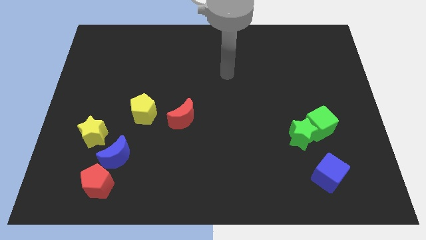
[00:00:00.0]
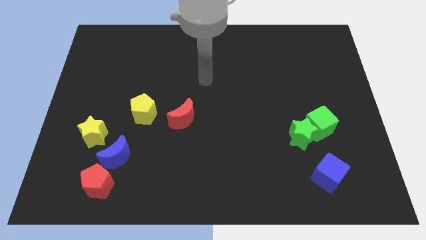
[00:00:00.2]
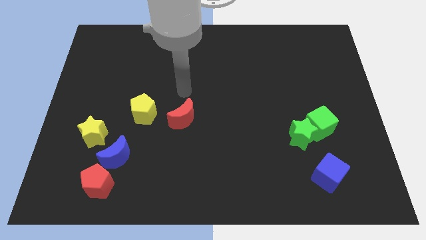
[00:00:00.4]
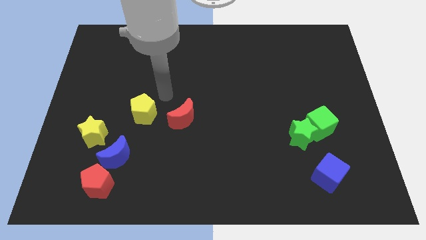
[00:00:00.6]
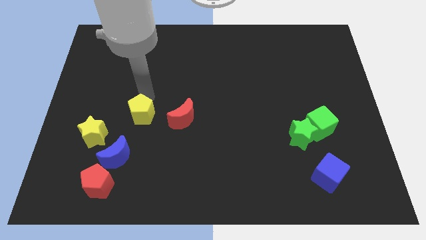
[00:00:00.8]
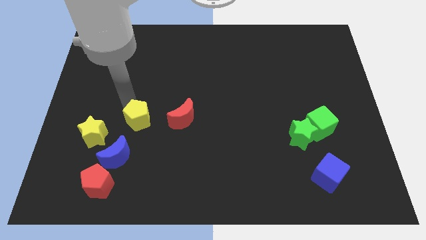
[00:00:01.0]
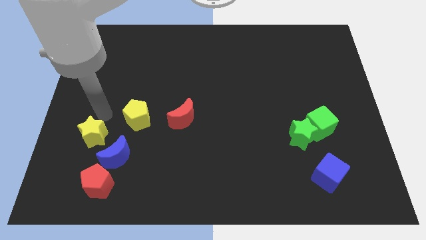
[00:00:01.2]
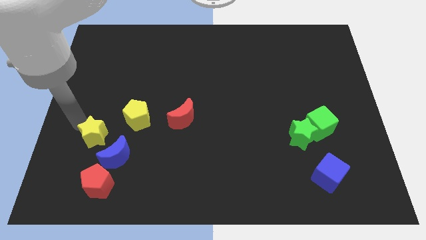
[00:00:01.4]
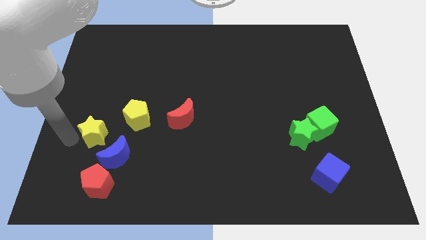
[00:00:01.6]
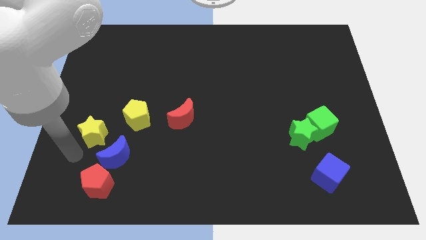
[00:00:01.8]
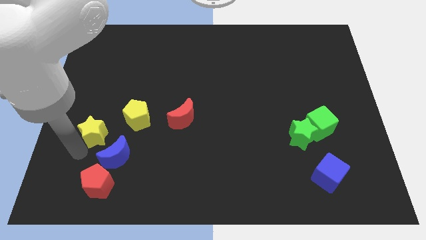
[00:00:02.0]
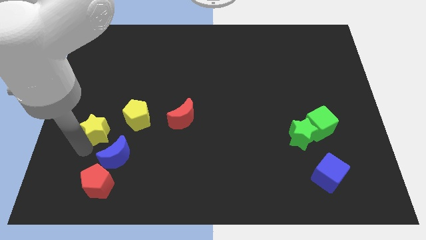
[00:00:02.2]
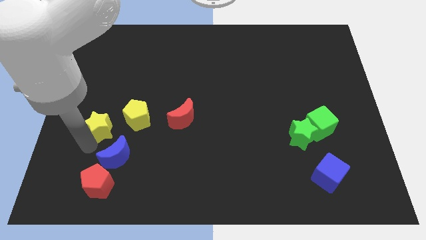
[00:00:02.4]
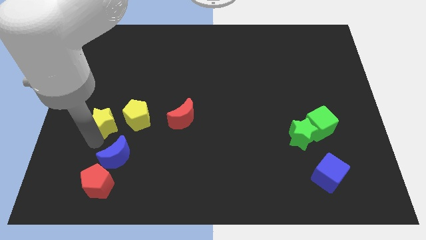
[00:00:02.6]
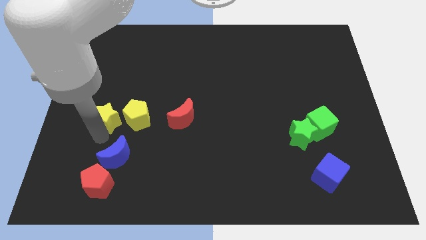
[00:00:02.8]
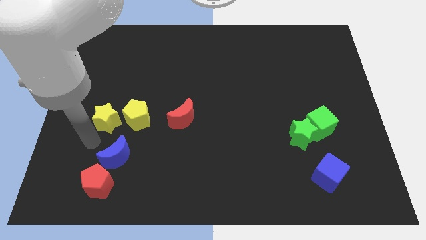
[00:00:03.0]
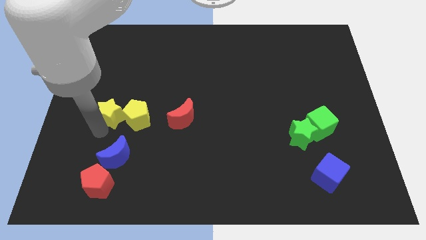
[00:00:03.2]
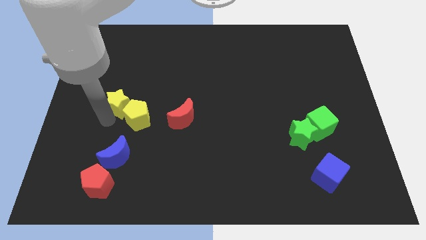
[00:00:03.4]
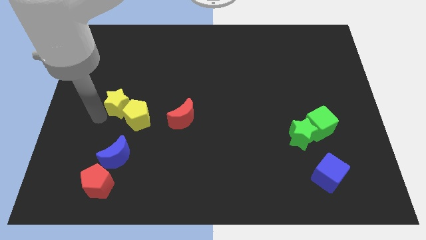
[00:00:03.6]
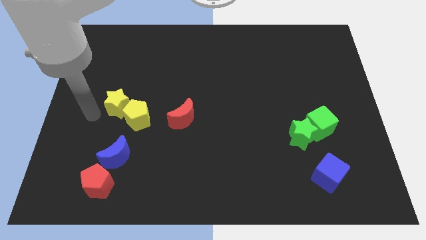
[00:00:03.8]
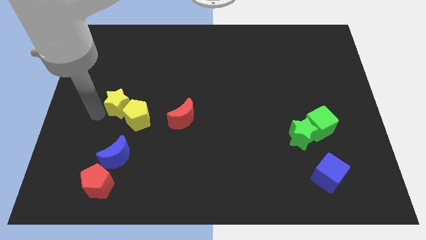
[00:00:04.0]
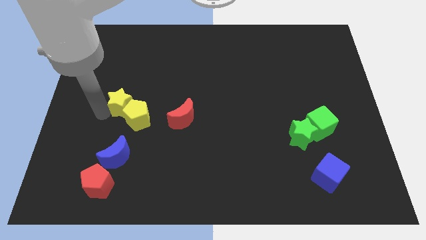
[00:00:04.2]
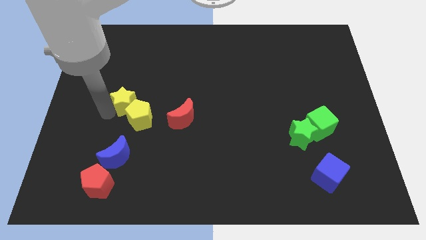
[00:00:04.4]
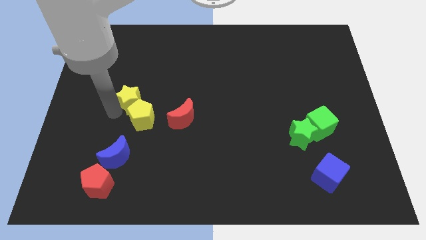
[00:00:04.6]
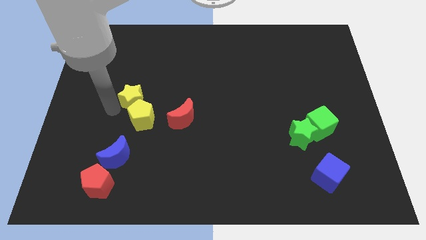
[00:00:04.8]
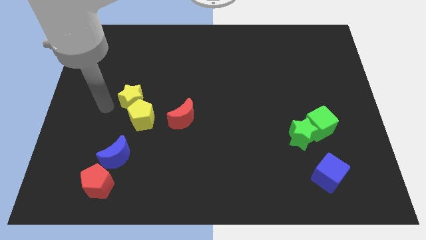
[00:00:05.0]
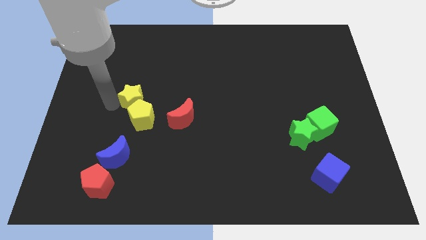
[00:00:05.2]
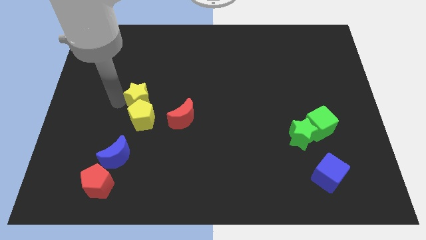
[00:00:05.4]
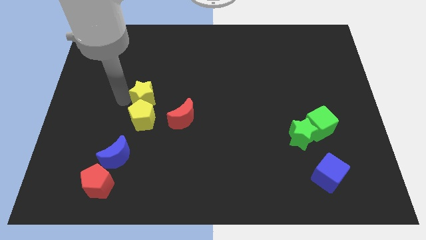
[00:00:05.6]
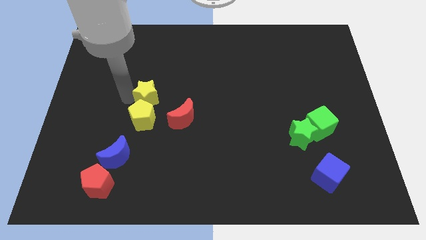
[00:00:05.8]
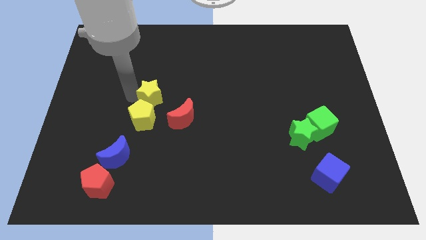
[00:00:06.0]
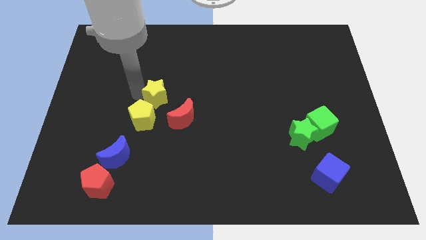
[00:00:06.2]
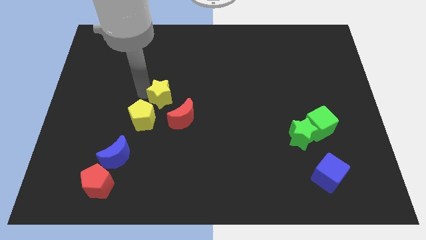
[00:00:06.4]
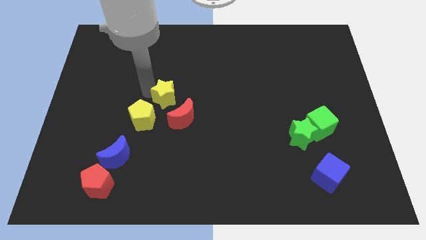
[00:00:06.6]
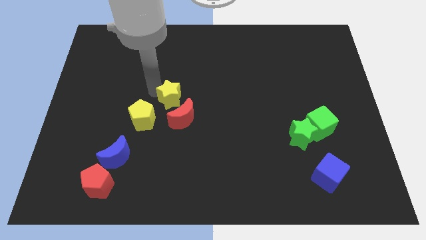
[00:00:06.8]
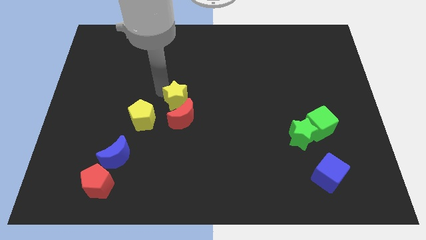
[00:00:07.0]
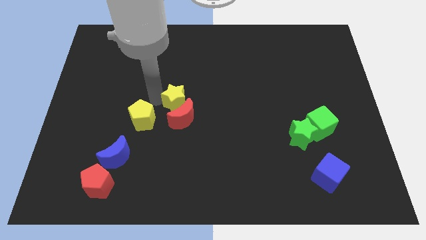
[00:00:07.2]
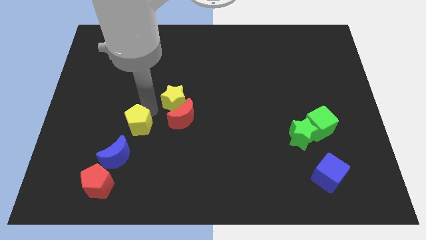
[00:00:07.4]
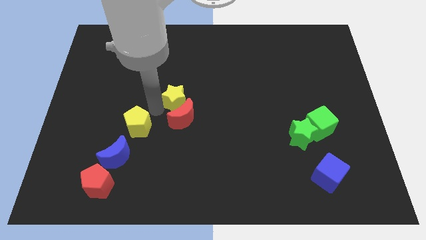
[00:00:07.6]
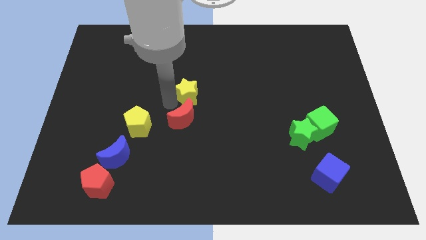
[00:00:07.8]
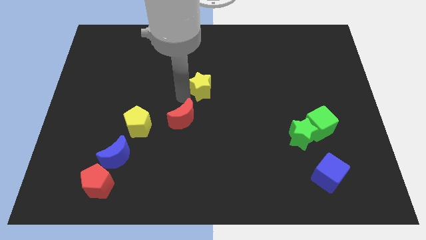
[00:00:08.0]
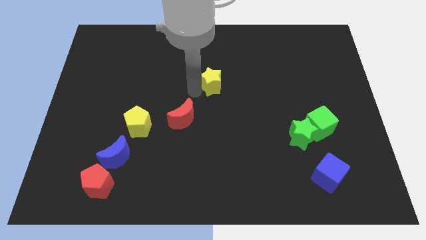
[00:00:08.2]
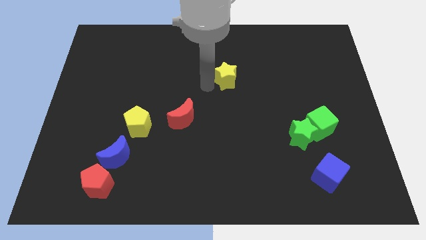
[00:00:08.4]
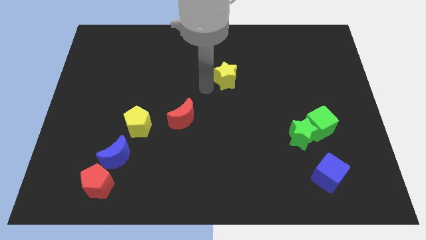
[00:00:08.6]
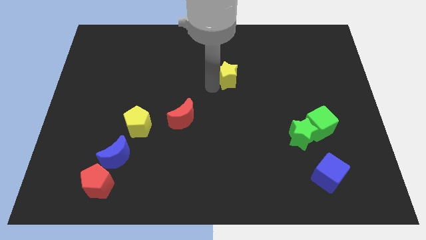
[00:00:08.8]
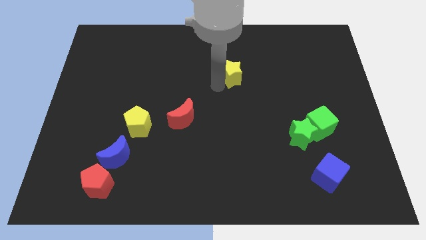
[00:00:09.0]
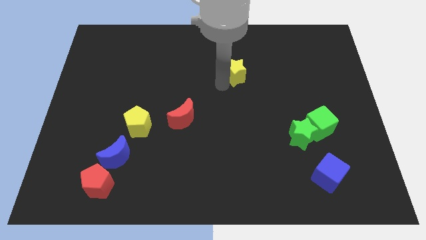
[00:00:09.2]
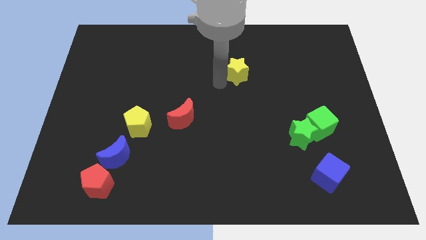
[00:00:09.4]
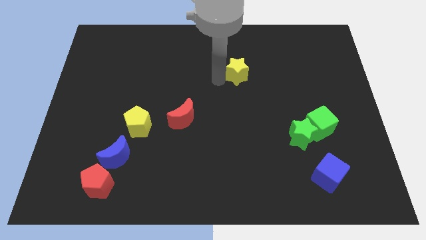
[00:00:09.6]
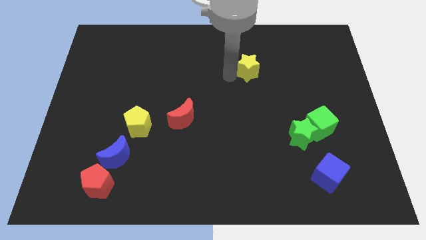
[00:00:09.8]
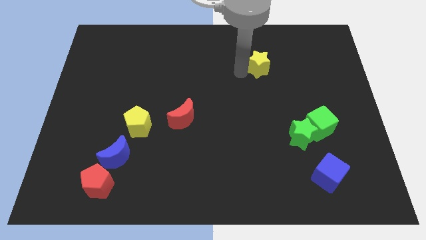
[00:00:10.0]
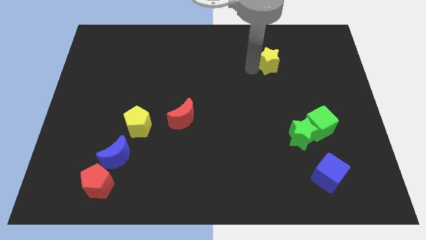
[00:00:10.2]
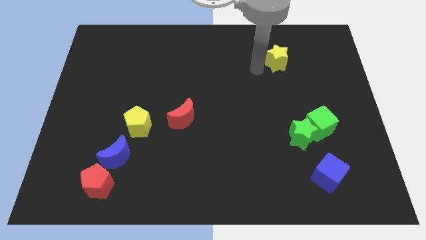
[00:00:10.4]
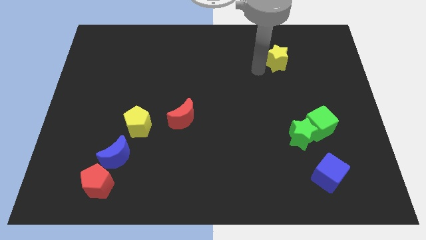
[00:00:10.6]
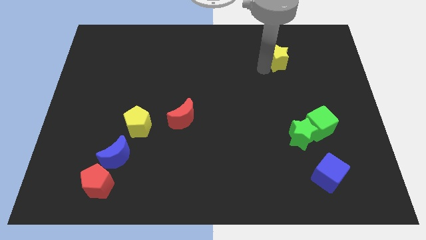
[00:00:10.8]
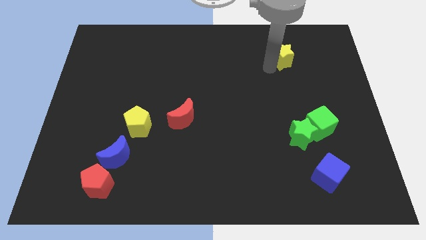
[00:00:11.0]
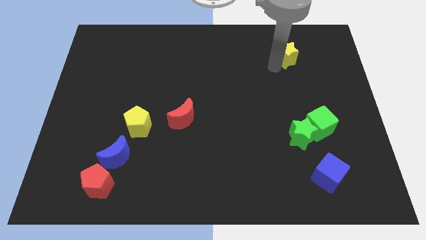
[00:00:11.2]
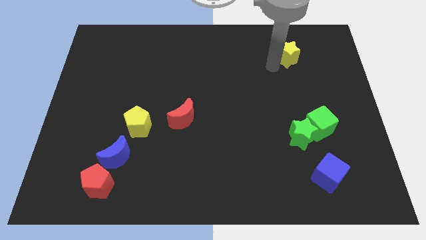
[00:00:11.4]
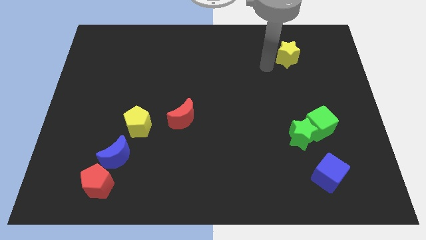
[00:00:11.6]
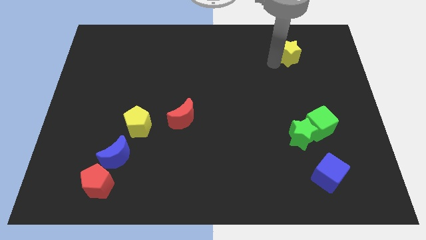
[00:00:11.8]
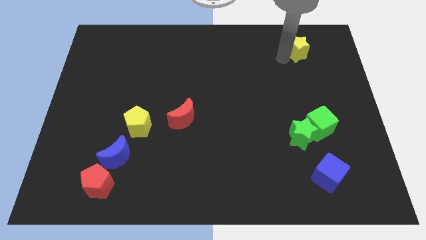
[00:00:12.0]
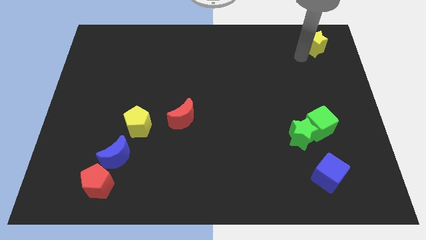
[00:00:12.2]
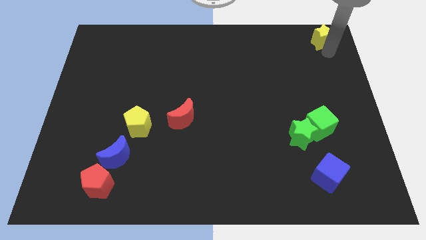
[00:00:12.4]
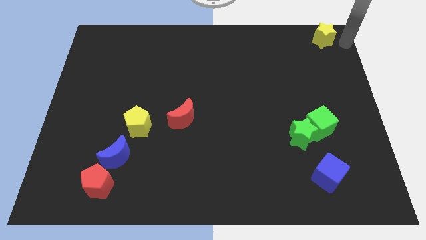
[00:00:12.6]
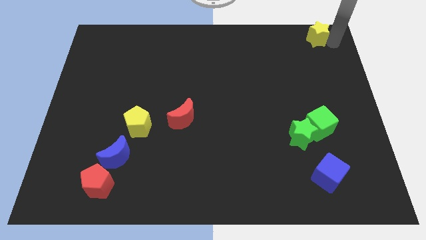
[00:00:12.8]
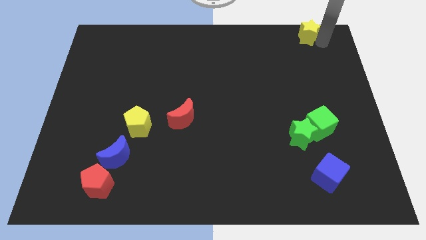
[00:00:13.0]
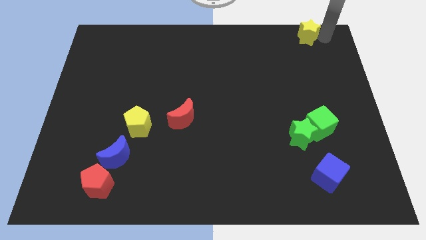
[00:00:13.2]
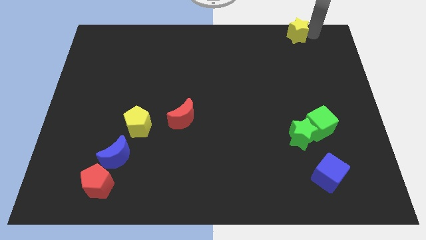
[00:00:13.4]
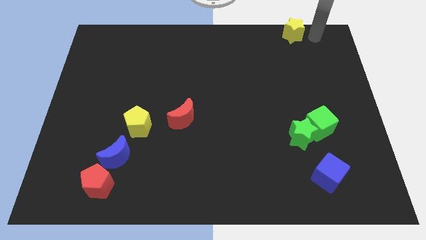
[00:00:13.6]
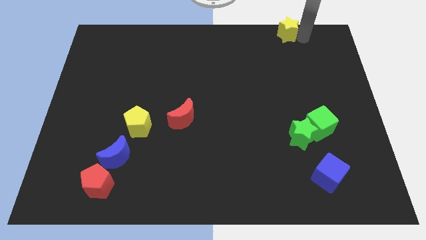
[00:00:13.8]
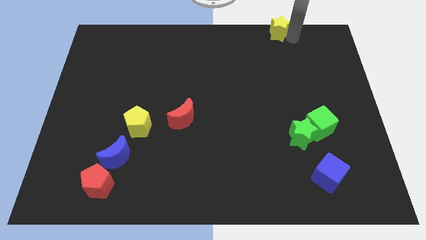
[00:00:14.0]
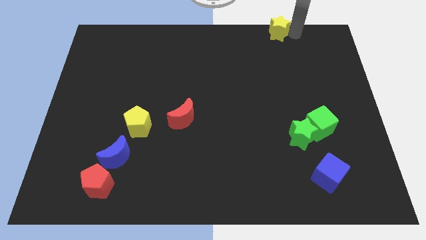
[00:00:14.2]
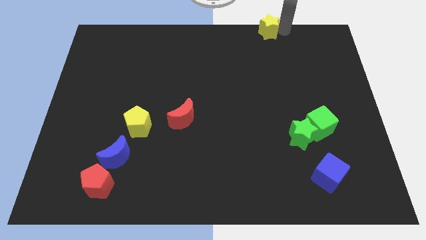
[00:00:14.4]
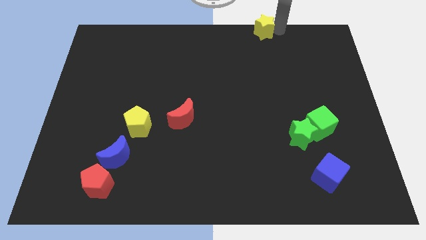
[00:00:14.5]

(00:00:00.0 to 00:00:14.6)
push the yellow star to the top side
